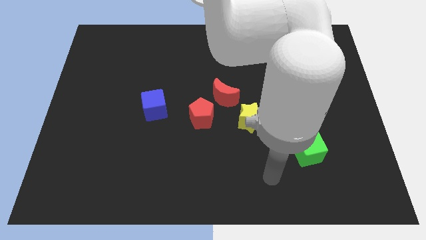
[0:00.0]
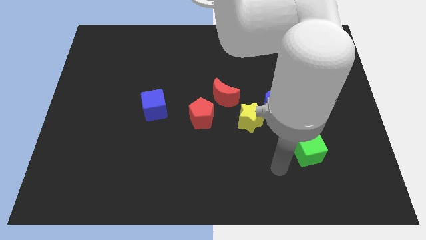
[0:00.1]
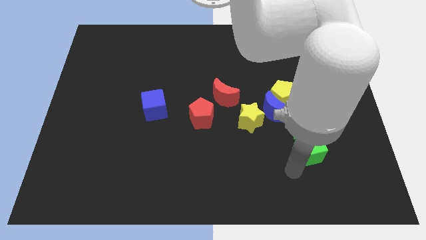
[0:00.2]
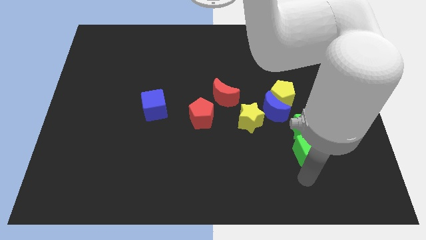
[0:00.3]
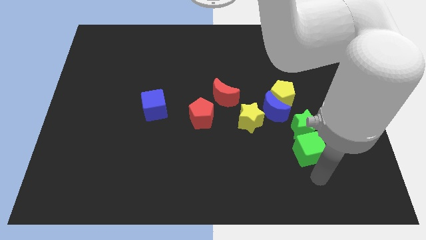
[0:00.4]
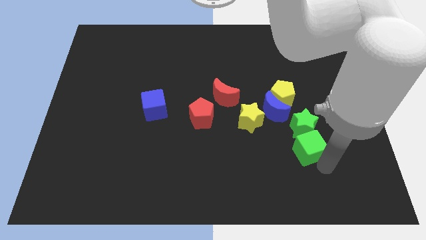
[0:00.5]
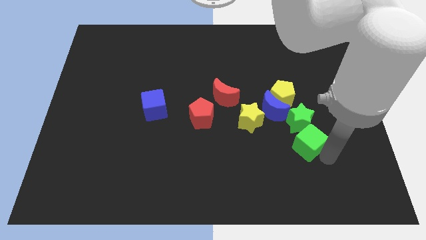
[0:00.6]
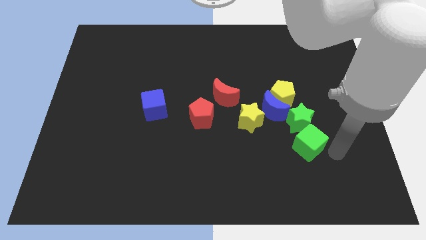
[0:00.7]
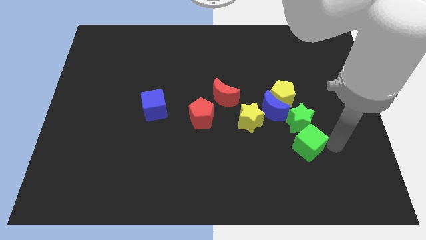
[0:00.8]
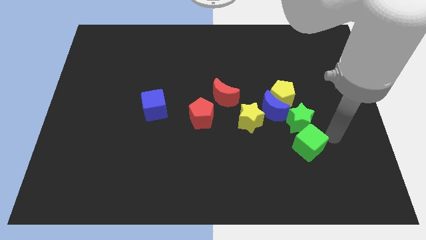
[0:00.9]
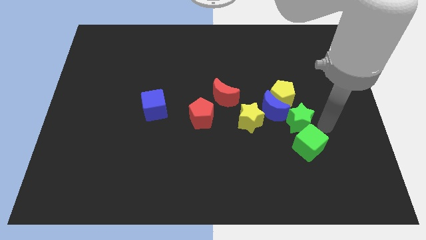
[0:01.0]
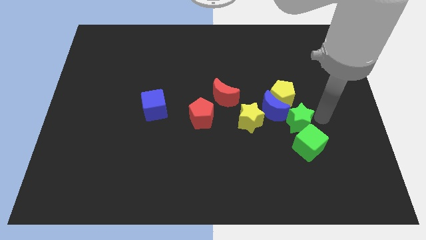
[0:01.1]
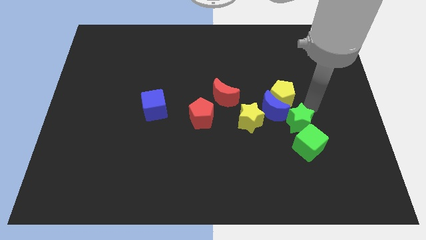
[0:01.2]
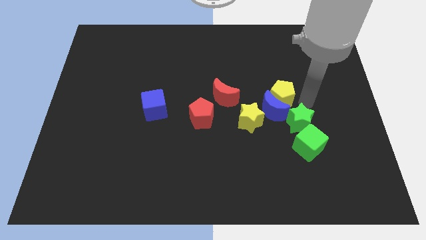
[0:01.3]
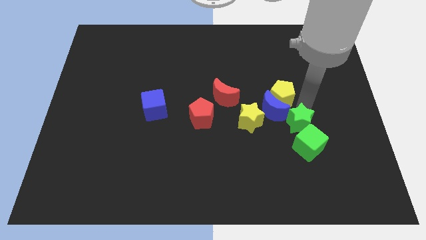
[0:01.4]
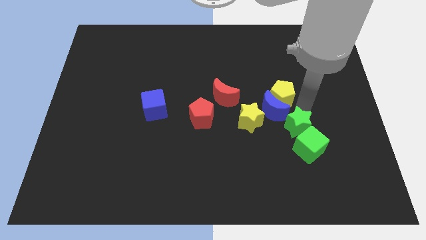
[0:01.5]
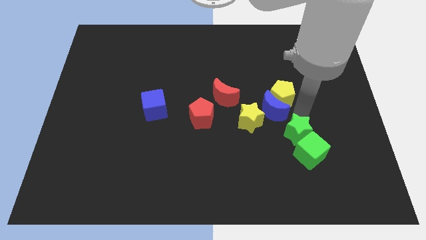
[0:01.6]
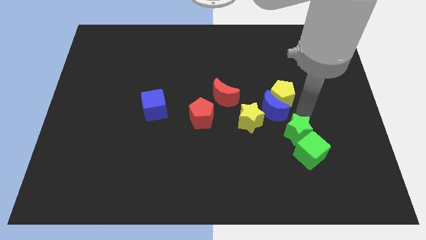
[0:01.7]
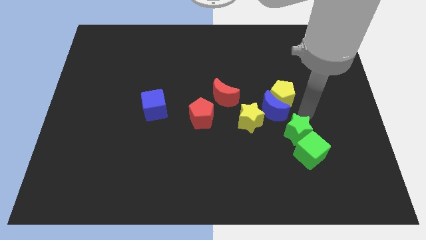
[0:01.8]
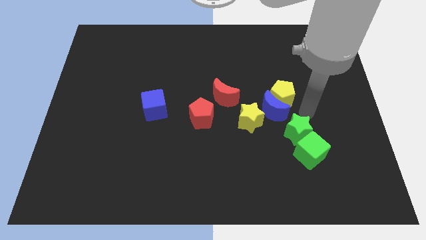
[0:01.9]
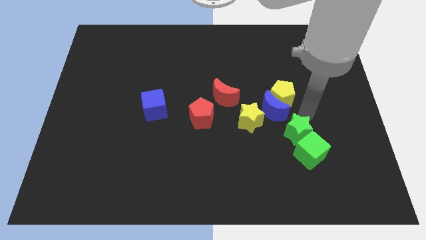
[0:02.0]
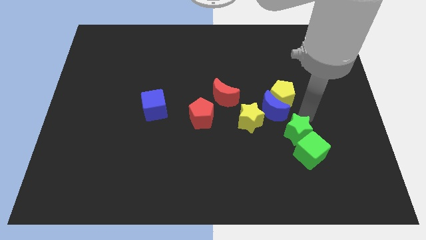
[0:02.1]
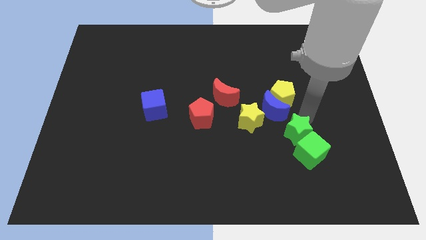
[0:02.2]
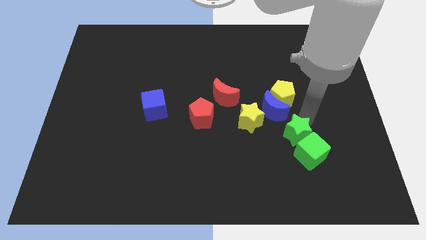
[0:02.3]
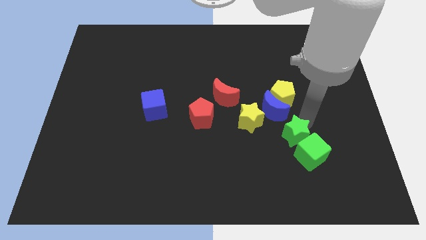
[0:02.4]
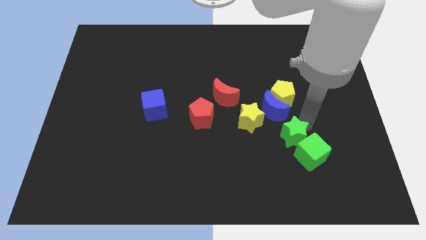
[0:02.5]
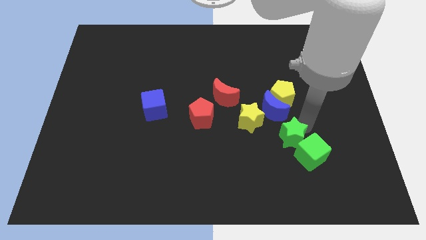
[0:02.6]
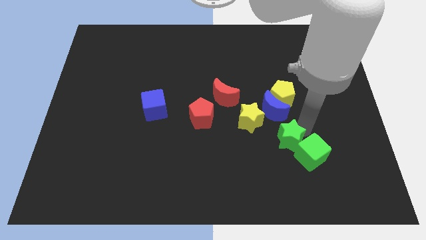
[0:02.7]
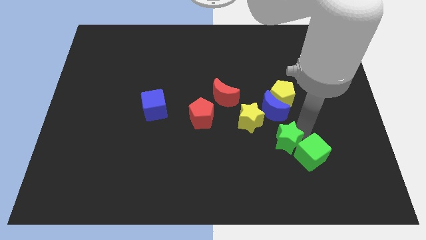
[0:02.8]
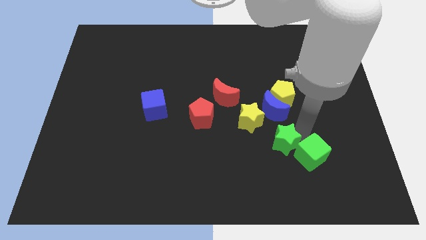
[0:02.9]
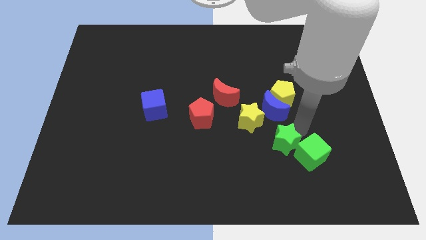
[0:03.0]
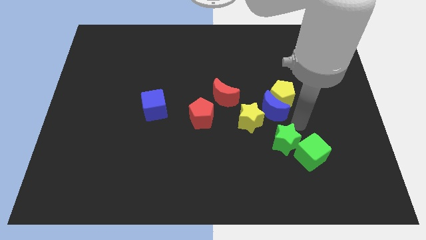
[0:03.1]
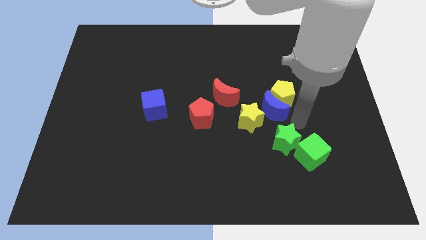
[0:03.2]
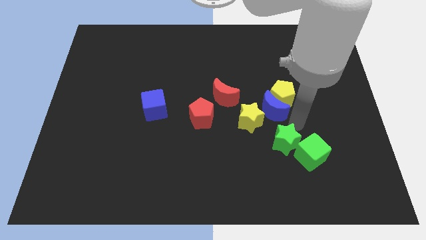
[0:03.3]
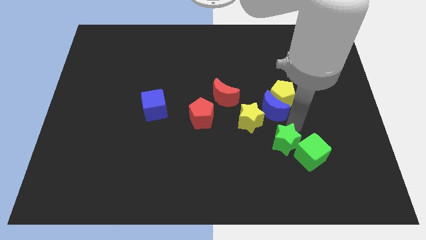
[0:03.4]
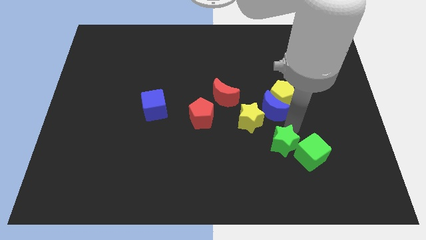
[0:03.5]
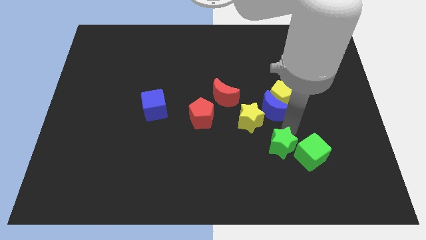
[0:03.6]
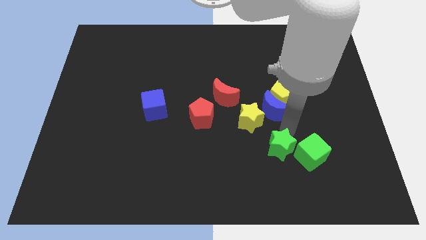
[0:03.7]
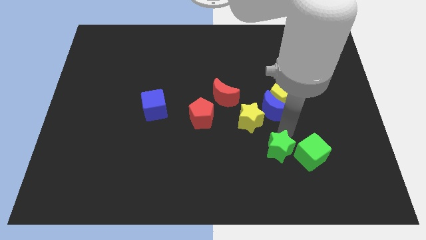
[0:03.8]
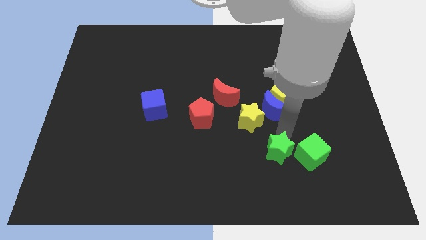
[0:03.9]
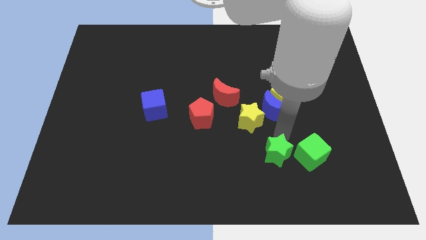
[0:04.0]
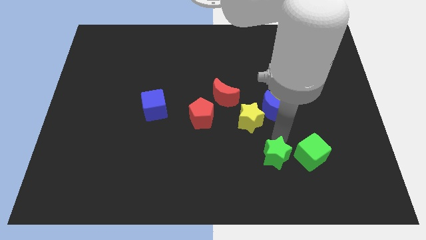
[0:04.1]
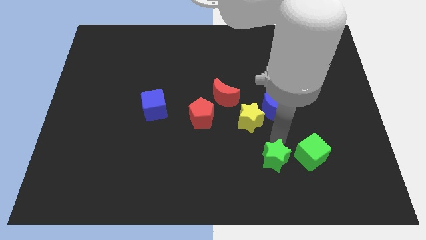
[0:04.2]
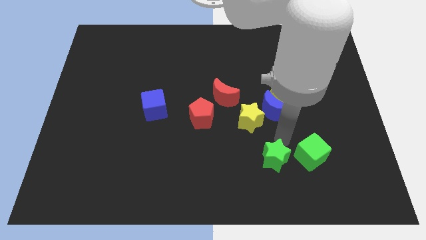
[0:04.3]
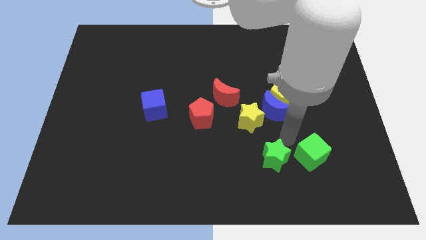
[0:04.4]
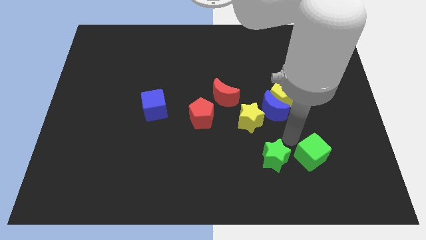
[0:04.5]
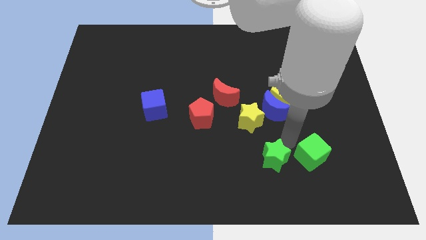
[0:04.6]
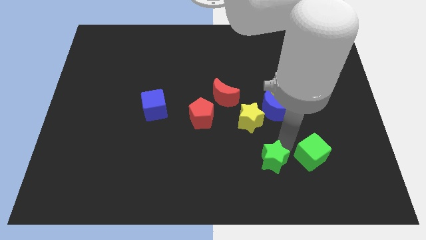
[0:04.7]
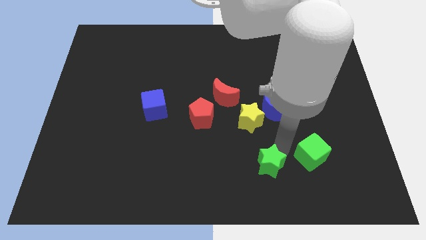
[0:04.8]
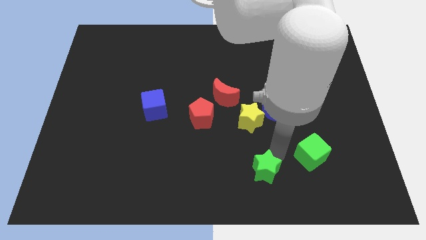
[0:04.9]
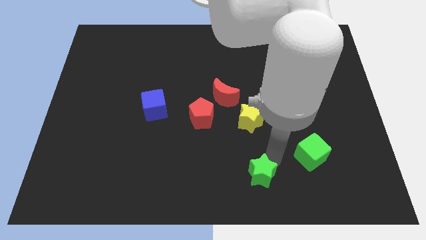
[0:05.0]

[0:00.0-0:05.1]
move the green star to the bottom

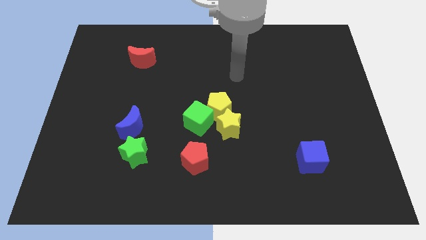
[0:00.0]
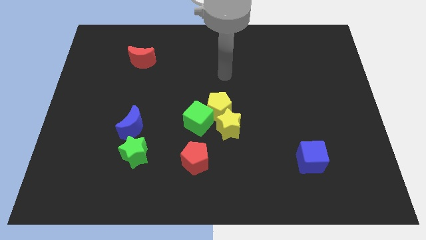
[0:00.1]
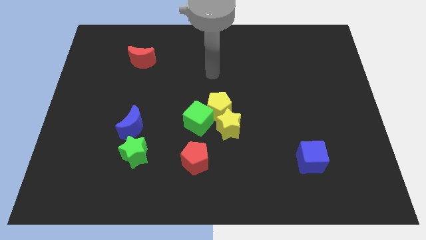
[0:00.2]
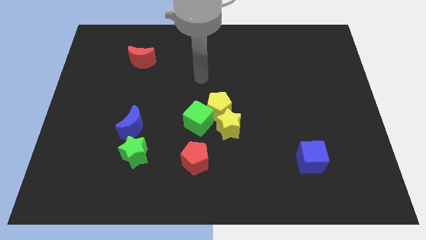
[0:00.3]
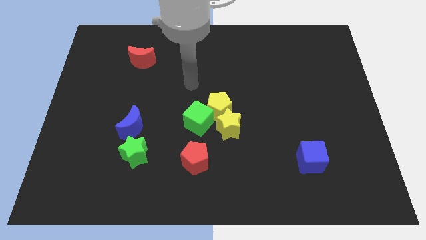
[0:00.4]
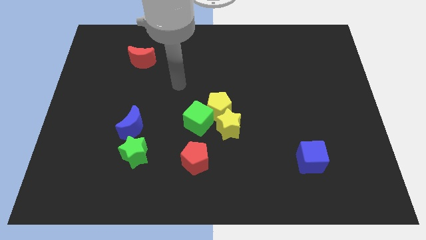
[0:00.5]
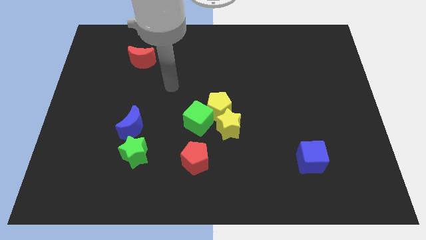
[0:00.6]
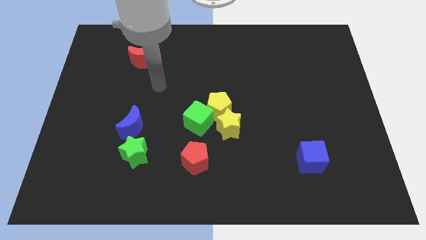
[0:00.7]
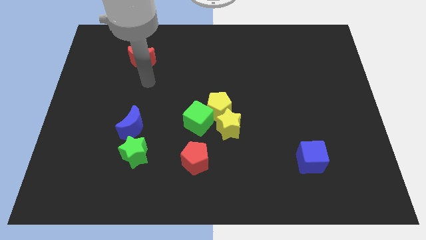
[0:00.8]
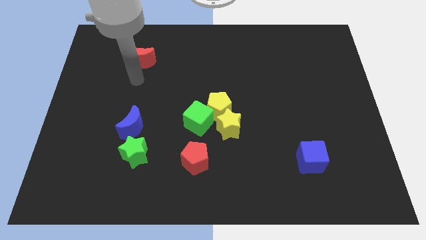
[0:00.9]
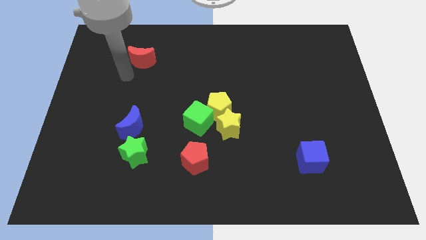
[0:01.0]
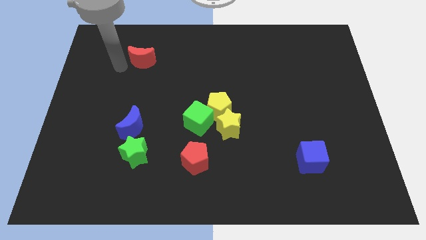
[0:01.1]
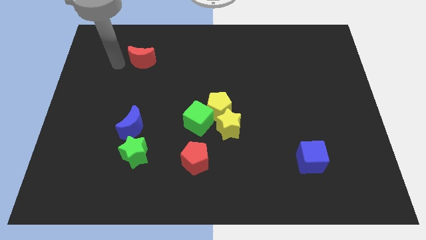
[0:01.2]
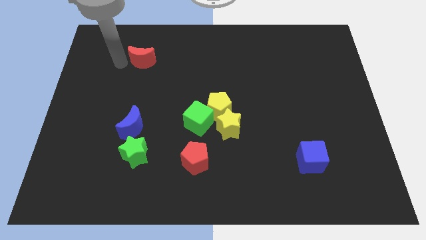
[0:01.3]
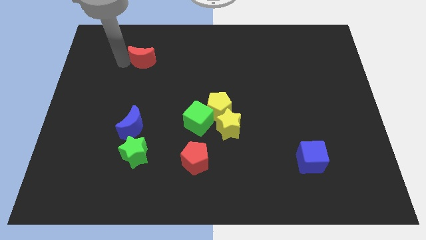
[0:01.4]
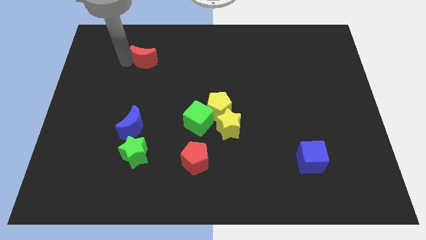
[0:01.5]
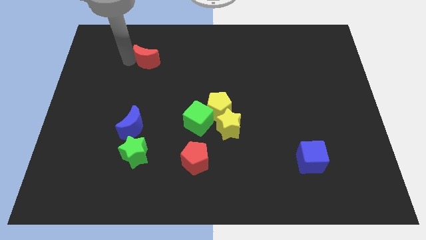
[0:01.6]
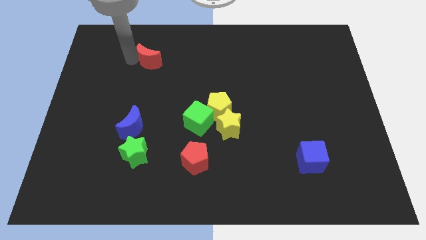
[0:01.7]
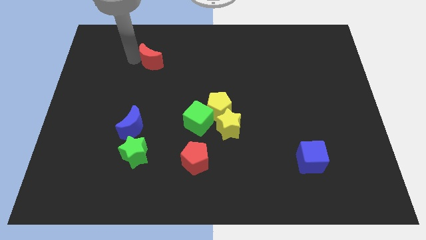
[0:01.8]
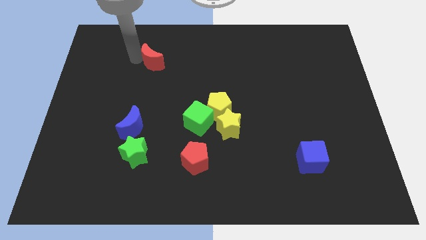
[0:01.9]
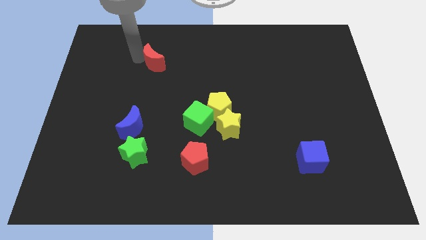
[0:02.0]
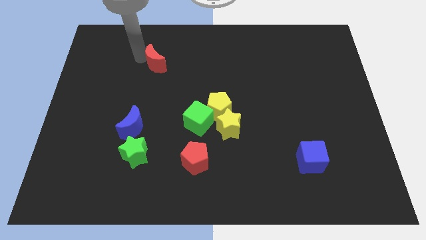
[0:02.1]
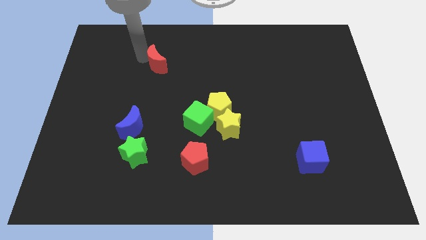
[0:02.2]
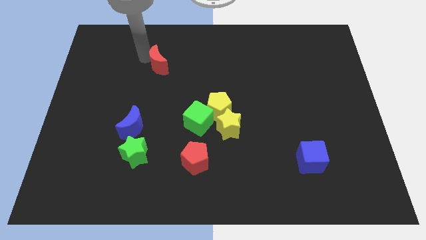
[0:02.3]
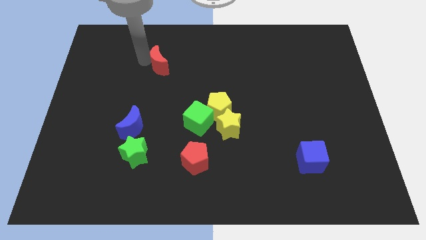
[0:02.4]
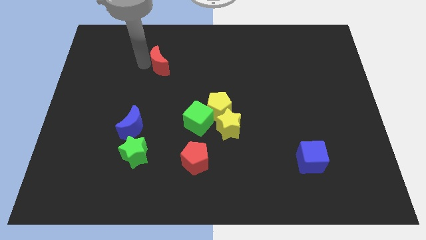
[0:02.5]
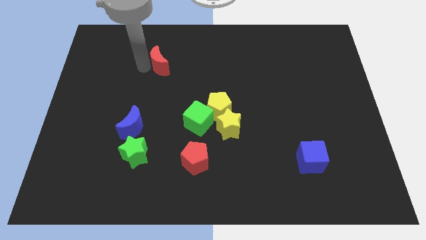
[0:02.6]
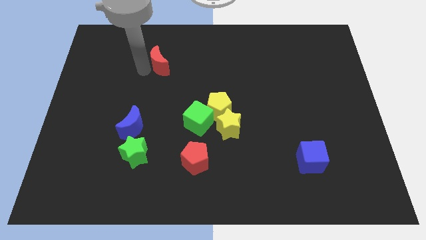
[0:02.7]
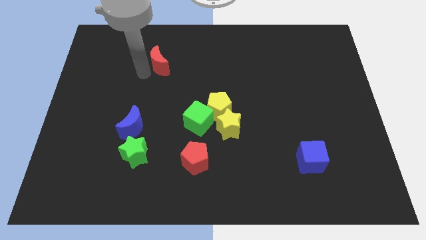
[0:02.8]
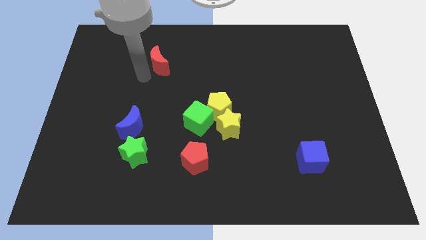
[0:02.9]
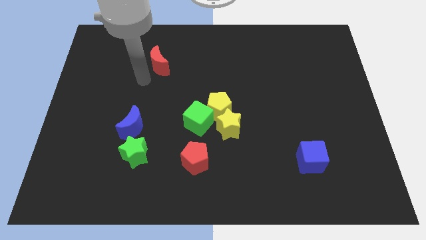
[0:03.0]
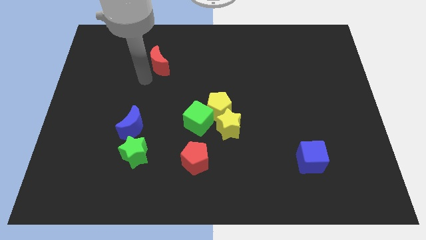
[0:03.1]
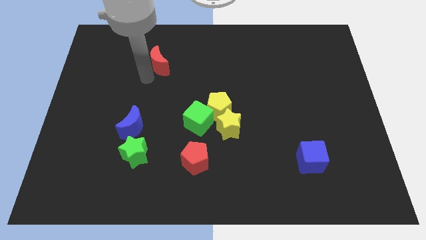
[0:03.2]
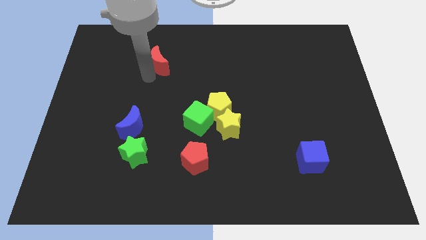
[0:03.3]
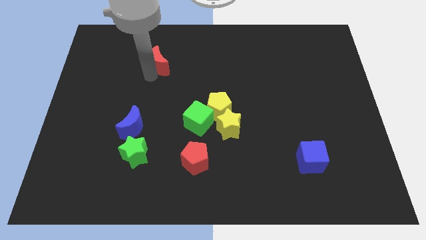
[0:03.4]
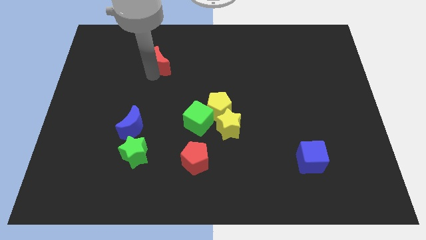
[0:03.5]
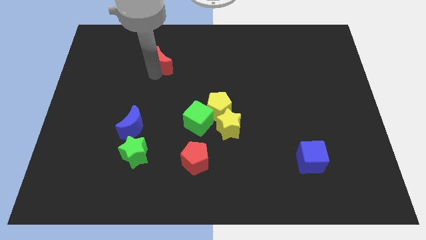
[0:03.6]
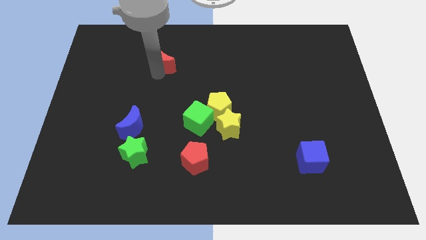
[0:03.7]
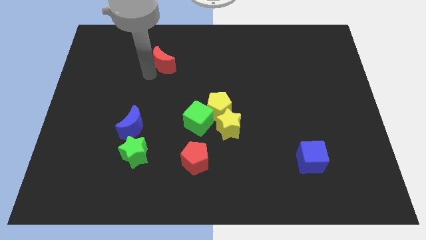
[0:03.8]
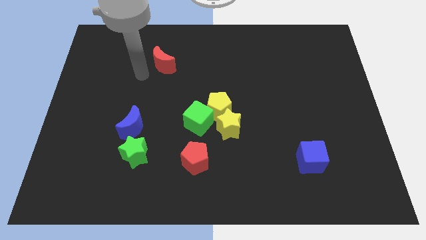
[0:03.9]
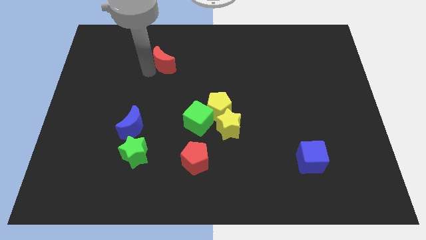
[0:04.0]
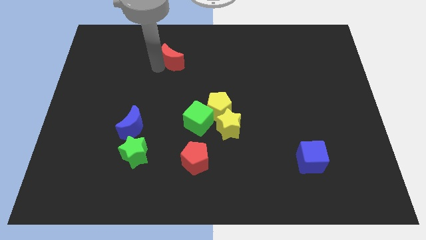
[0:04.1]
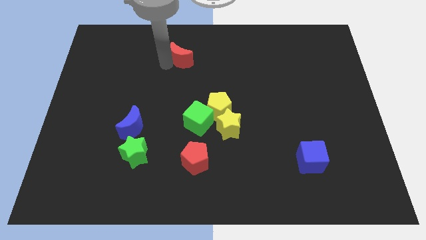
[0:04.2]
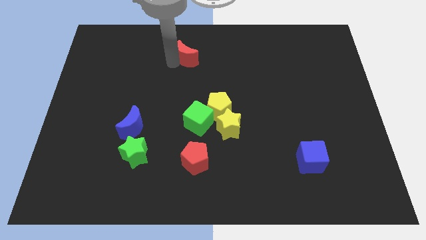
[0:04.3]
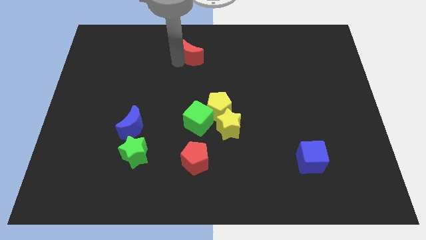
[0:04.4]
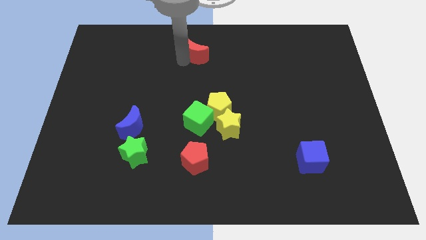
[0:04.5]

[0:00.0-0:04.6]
slide the red moon to the top side
